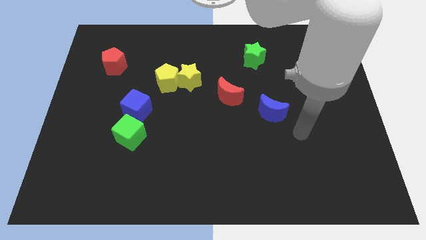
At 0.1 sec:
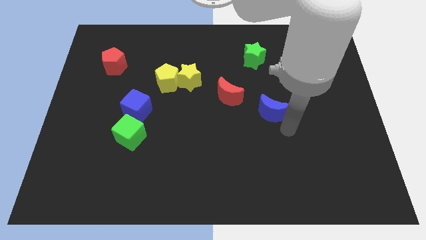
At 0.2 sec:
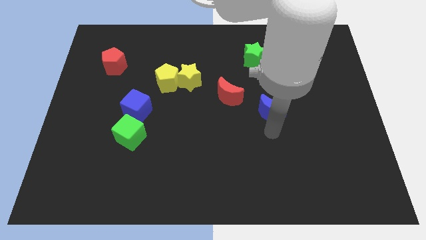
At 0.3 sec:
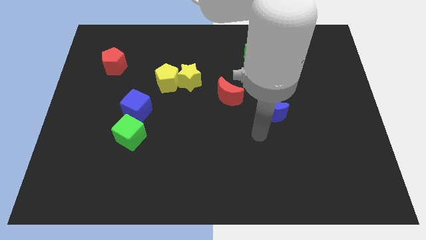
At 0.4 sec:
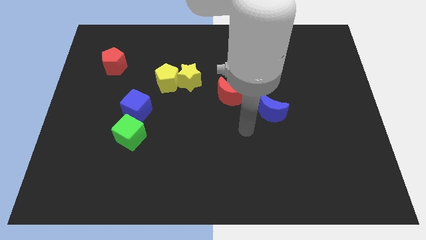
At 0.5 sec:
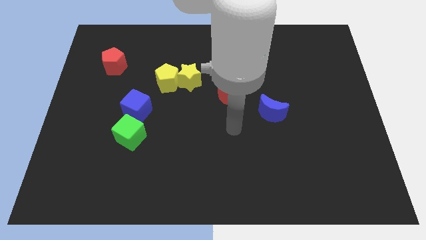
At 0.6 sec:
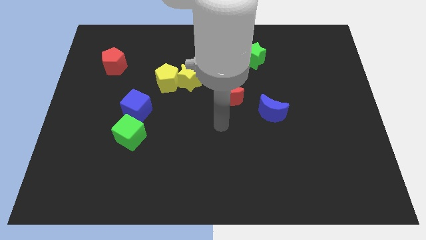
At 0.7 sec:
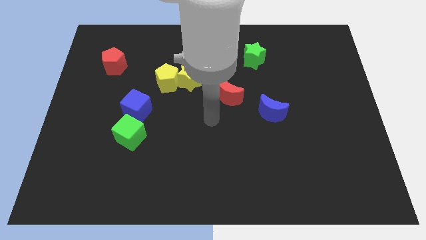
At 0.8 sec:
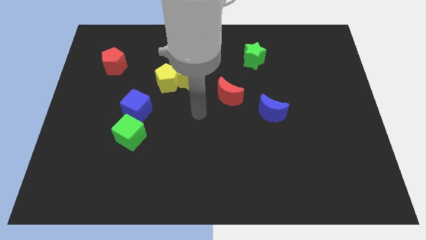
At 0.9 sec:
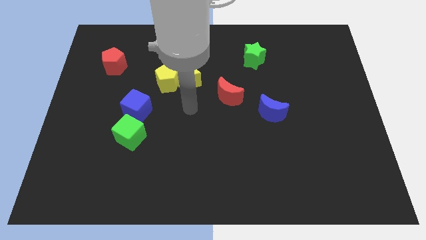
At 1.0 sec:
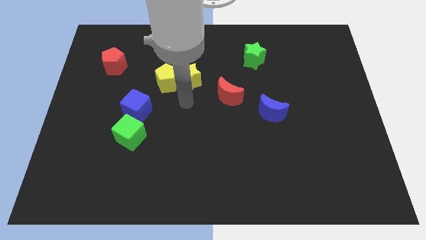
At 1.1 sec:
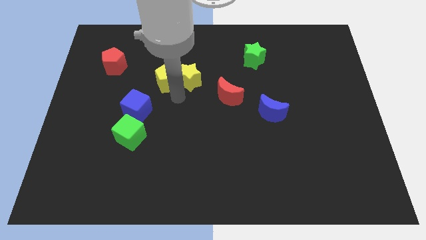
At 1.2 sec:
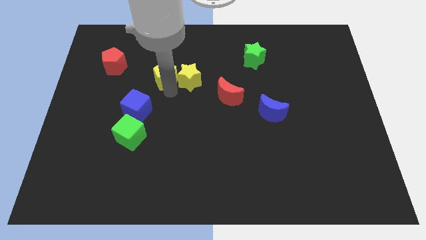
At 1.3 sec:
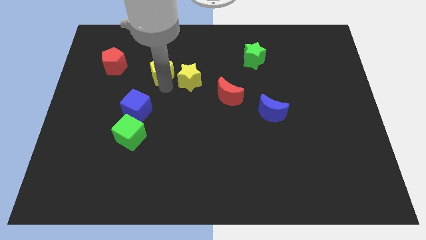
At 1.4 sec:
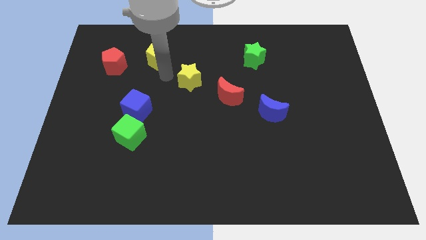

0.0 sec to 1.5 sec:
separate the yellow star from the yellow pentagon

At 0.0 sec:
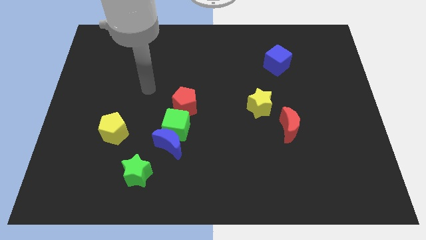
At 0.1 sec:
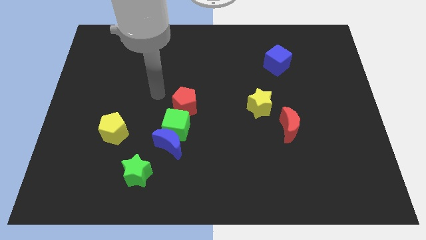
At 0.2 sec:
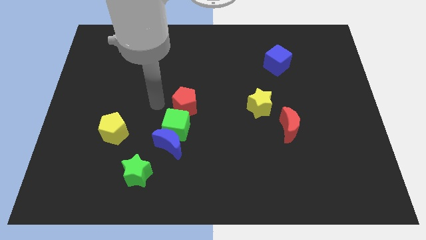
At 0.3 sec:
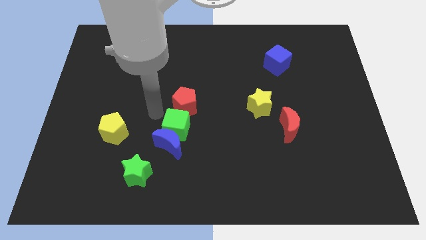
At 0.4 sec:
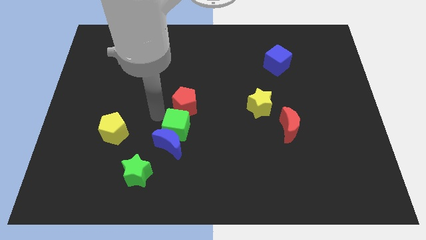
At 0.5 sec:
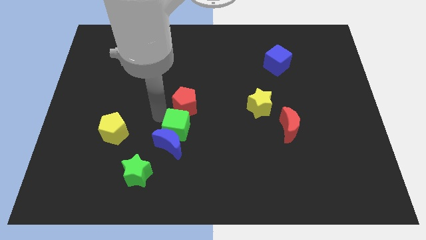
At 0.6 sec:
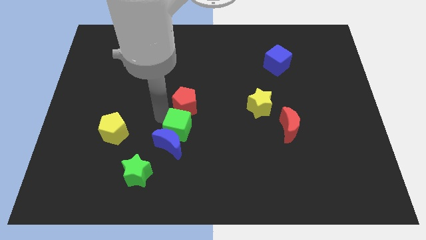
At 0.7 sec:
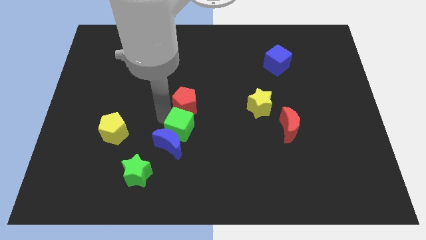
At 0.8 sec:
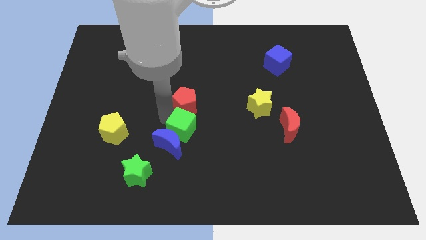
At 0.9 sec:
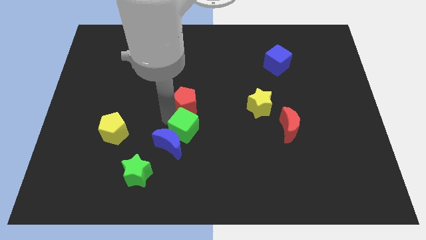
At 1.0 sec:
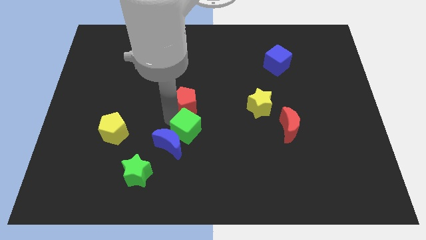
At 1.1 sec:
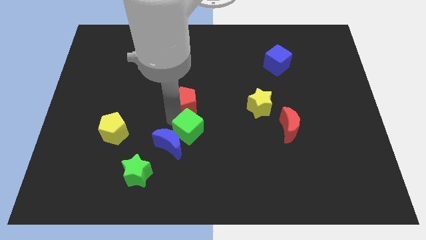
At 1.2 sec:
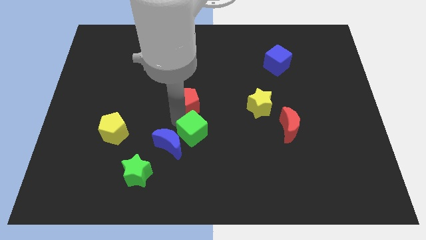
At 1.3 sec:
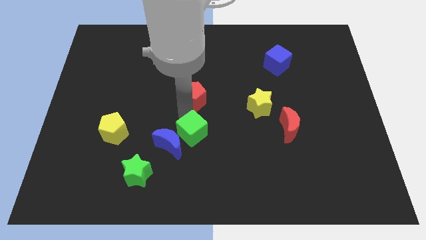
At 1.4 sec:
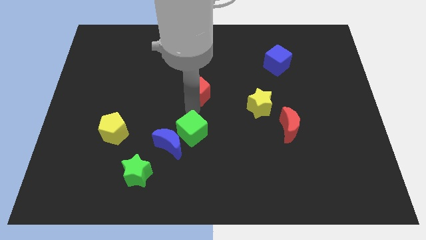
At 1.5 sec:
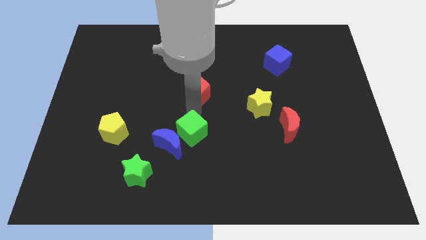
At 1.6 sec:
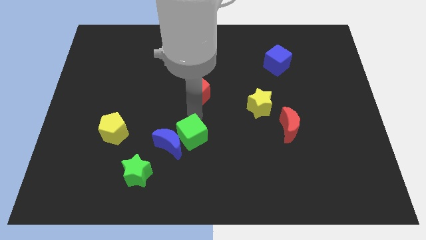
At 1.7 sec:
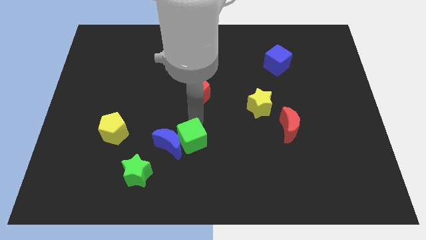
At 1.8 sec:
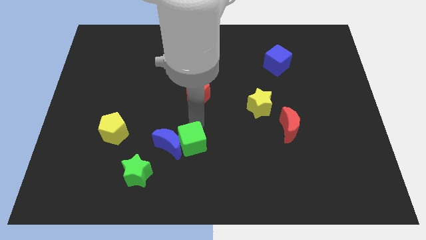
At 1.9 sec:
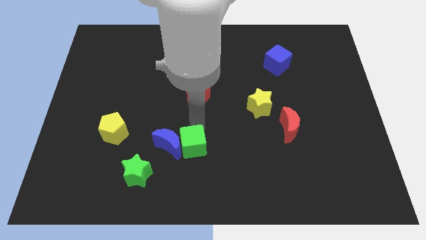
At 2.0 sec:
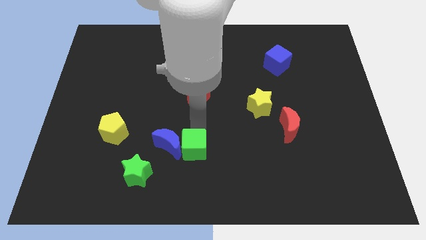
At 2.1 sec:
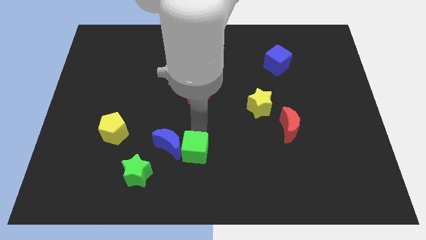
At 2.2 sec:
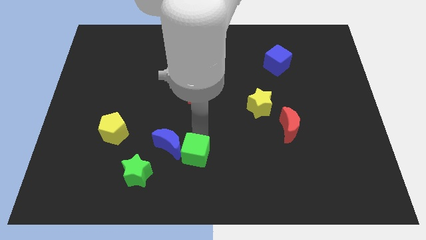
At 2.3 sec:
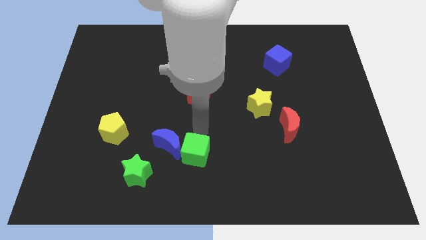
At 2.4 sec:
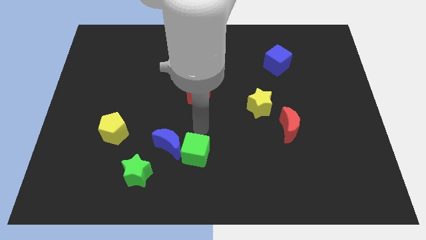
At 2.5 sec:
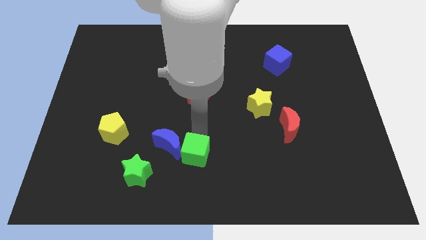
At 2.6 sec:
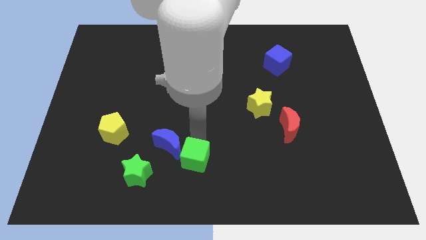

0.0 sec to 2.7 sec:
move the green cube away from the blue moon and red pentagon

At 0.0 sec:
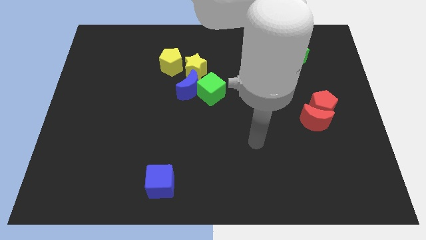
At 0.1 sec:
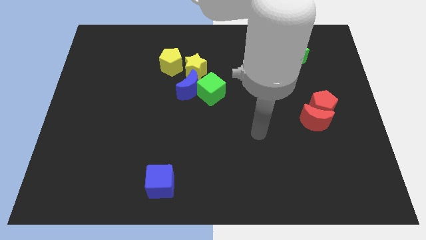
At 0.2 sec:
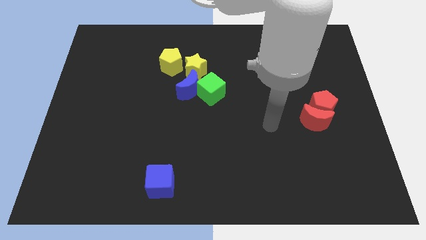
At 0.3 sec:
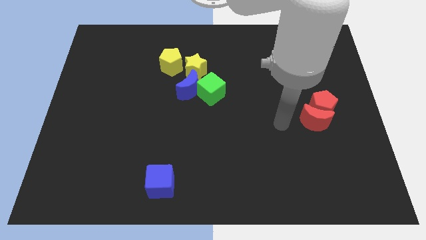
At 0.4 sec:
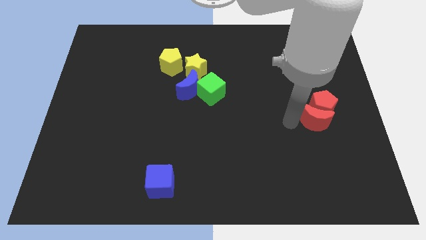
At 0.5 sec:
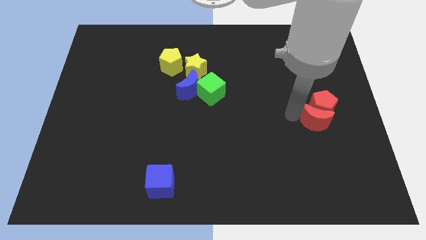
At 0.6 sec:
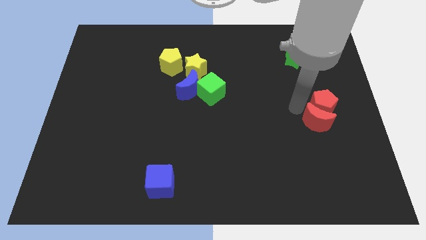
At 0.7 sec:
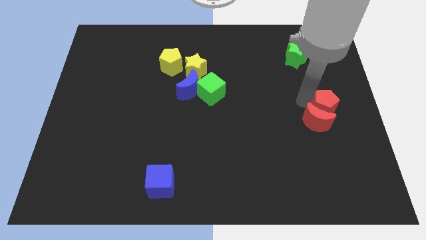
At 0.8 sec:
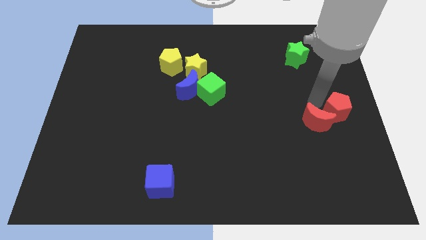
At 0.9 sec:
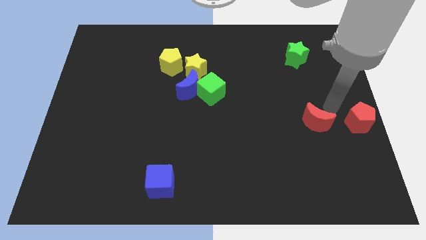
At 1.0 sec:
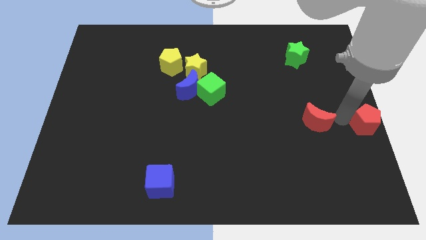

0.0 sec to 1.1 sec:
move the red moon away from the red pentagon

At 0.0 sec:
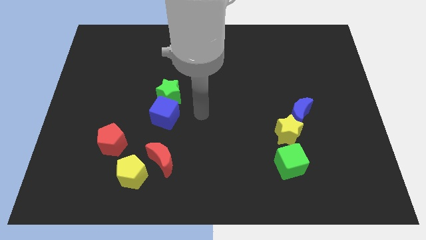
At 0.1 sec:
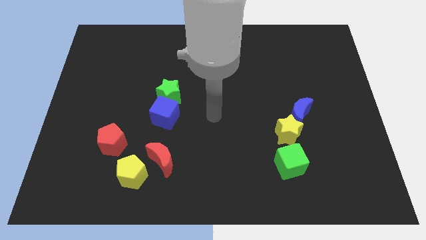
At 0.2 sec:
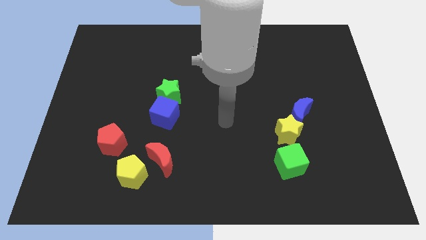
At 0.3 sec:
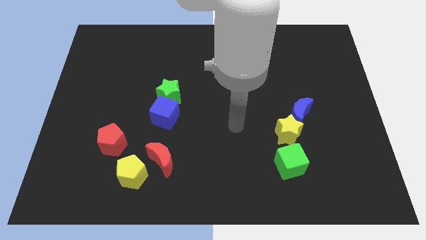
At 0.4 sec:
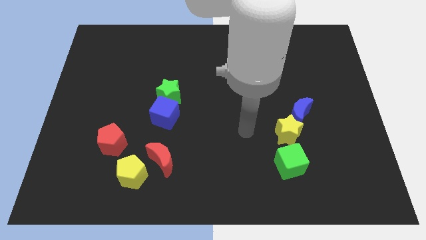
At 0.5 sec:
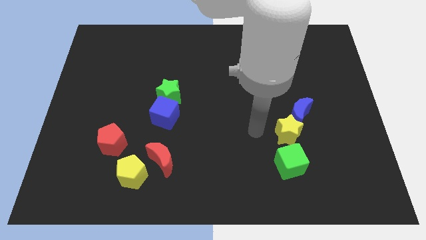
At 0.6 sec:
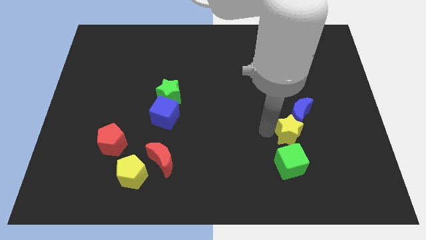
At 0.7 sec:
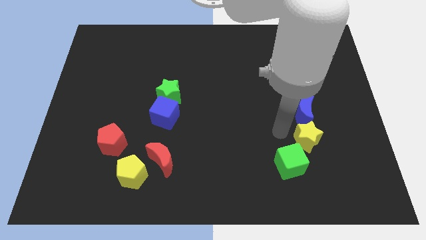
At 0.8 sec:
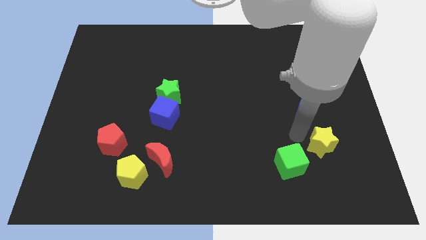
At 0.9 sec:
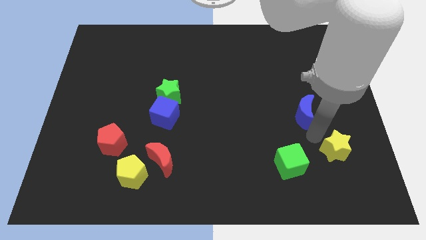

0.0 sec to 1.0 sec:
separate the blue moon from the yellow star

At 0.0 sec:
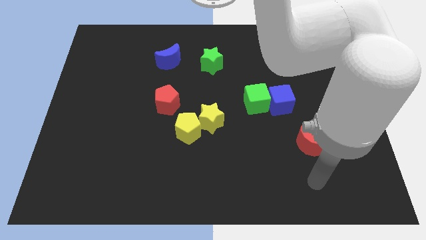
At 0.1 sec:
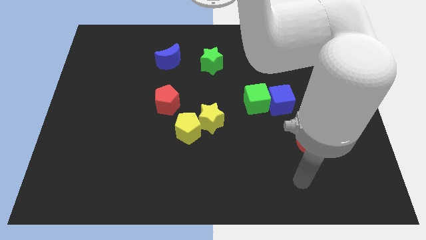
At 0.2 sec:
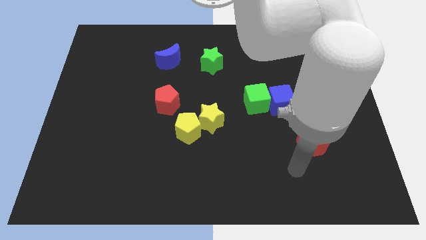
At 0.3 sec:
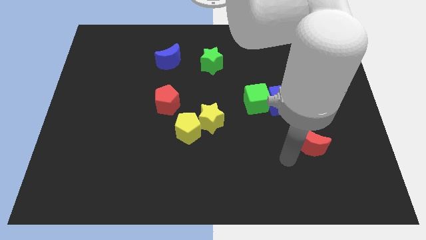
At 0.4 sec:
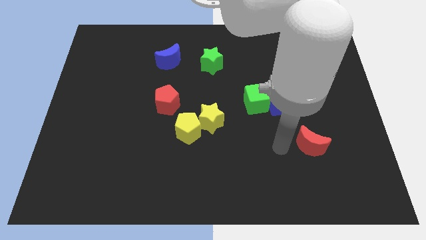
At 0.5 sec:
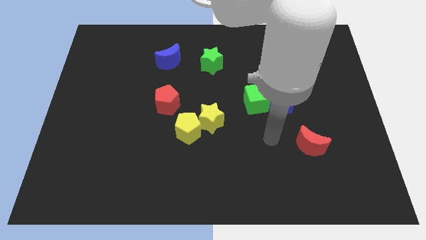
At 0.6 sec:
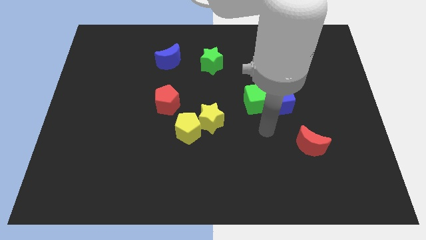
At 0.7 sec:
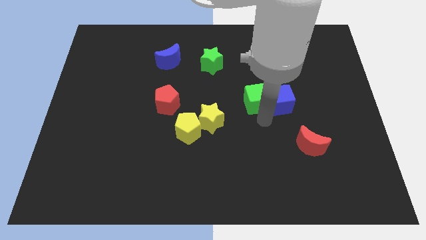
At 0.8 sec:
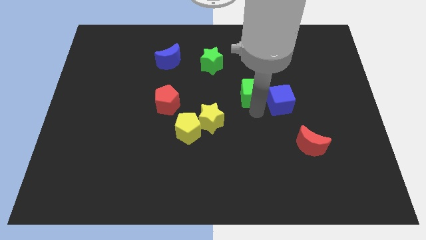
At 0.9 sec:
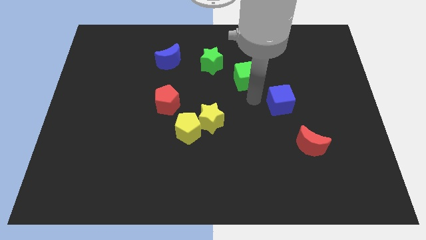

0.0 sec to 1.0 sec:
move the blue cube away from the green cube

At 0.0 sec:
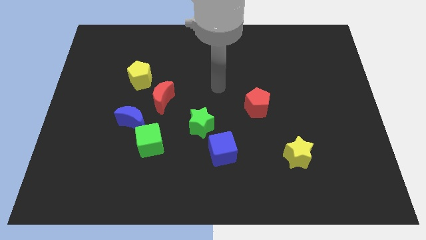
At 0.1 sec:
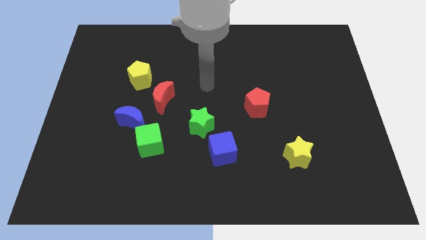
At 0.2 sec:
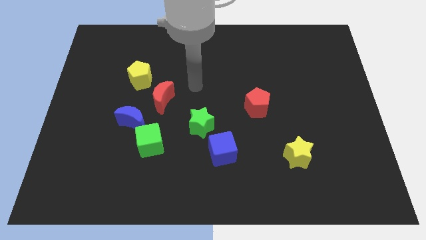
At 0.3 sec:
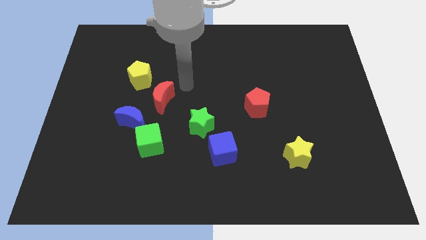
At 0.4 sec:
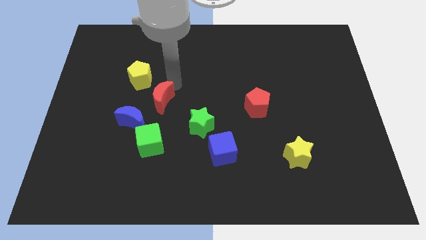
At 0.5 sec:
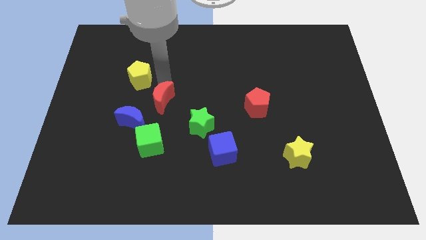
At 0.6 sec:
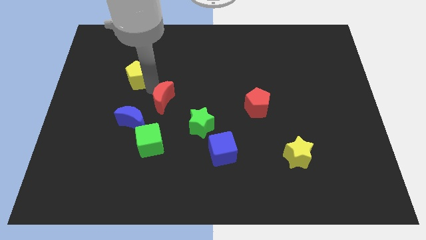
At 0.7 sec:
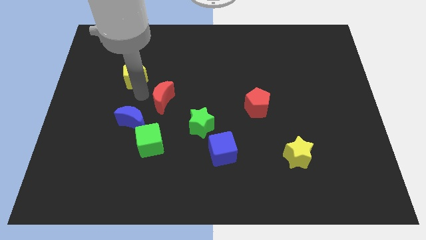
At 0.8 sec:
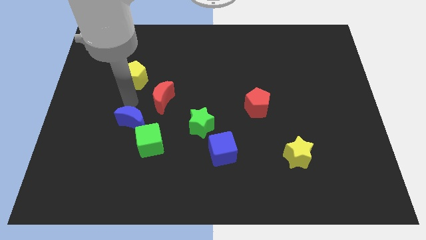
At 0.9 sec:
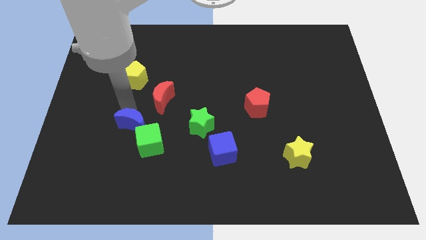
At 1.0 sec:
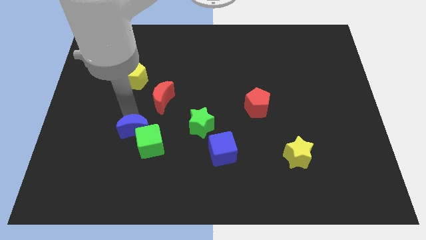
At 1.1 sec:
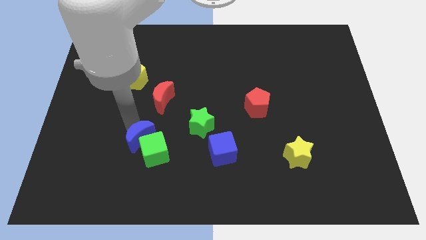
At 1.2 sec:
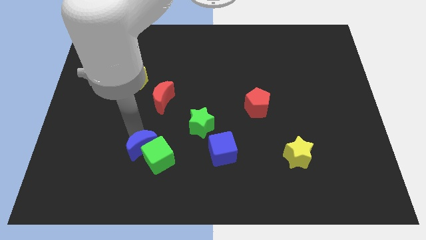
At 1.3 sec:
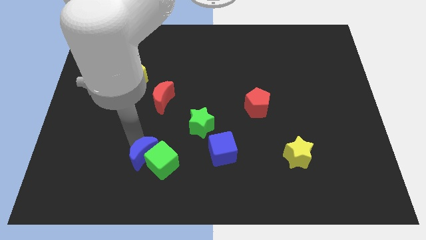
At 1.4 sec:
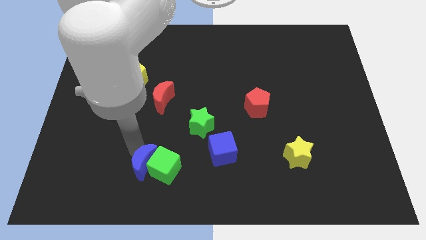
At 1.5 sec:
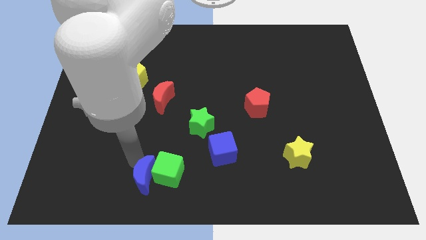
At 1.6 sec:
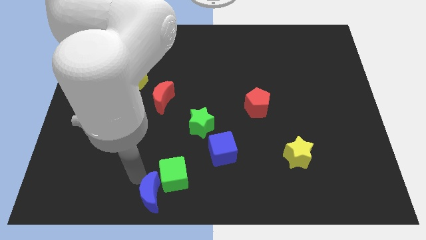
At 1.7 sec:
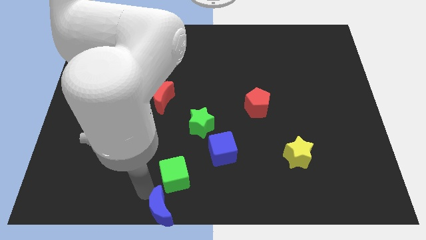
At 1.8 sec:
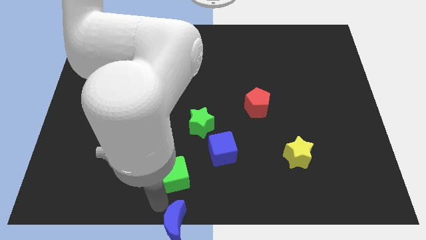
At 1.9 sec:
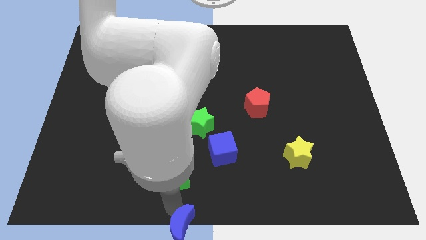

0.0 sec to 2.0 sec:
move the green cube away from the blue moon
